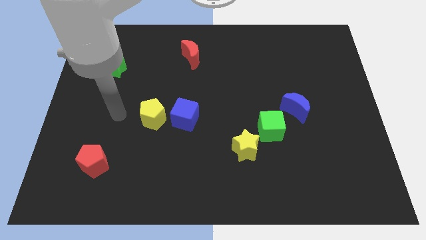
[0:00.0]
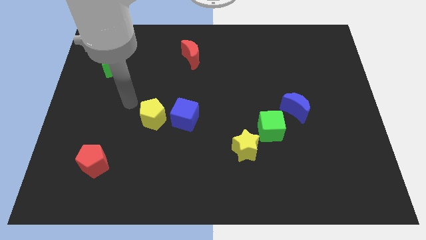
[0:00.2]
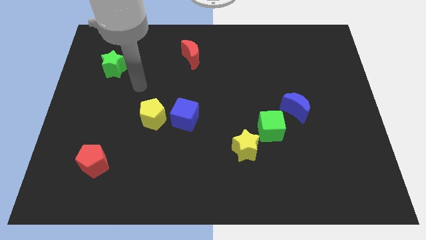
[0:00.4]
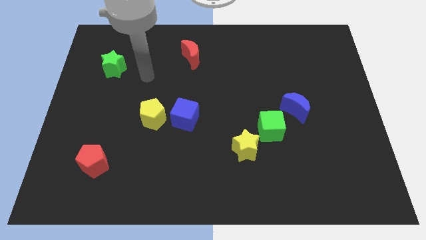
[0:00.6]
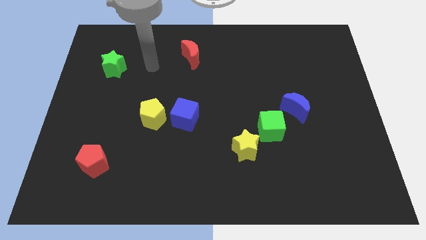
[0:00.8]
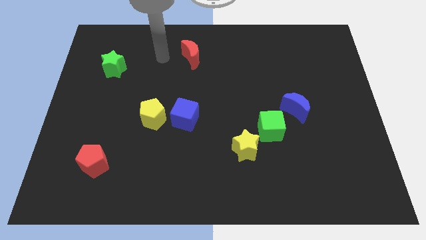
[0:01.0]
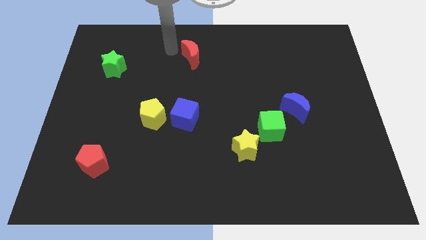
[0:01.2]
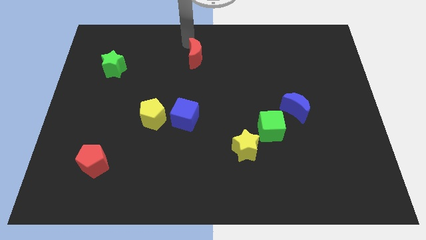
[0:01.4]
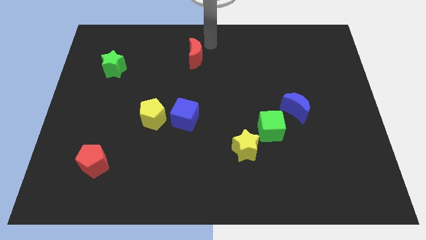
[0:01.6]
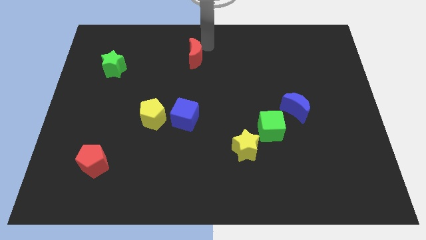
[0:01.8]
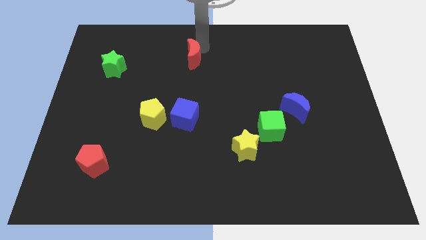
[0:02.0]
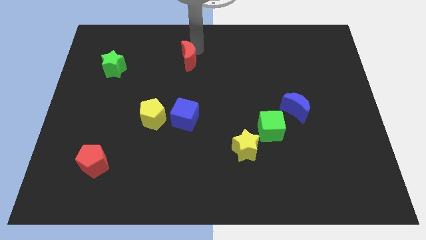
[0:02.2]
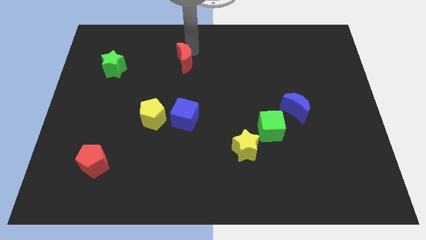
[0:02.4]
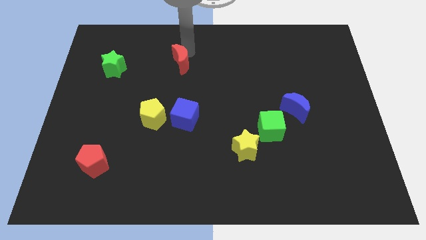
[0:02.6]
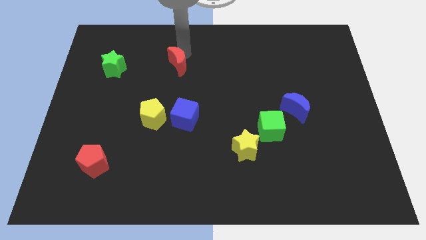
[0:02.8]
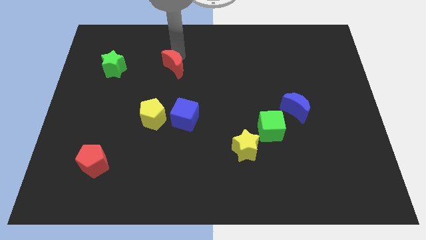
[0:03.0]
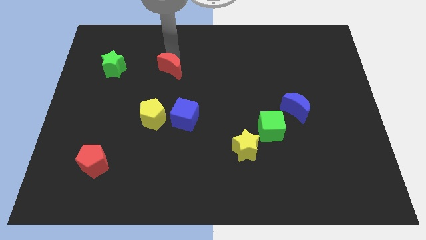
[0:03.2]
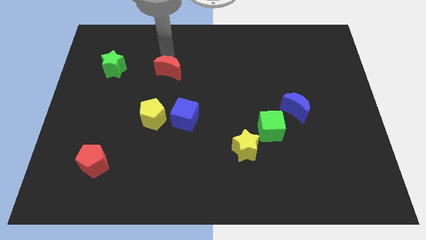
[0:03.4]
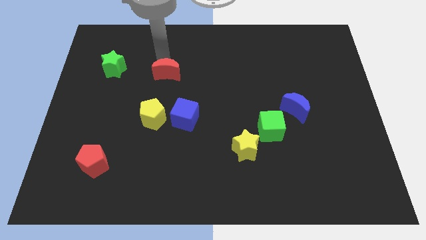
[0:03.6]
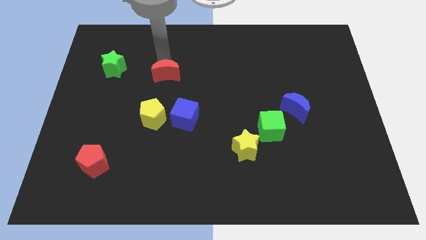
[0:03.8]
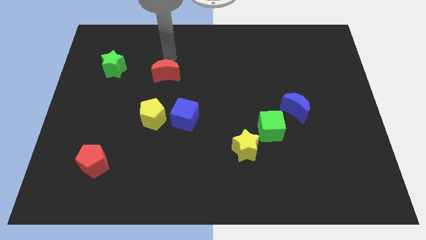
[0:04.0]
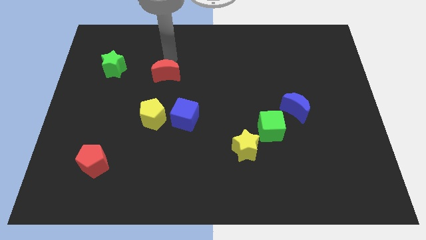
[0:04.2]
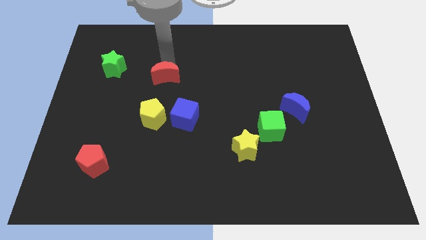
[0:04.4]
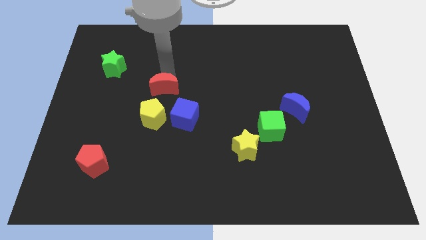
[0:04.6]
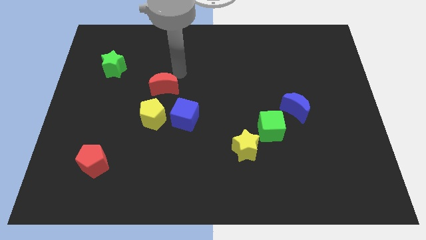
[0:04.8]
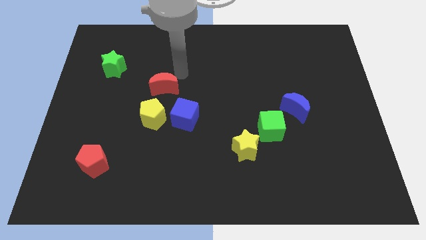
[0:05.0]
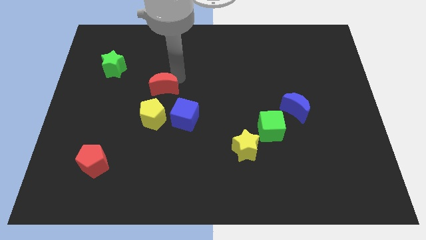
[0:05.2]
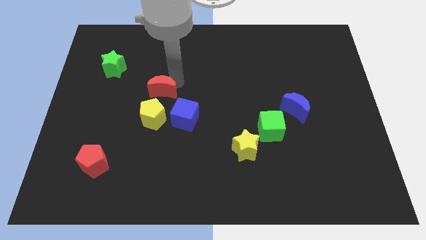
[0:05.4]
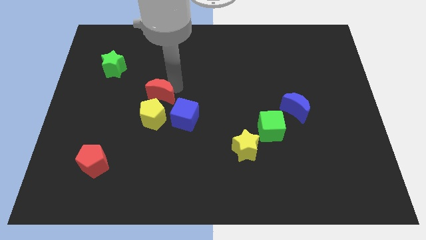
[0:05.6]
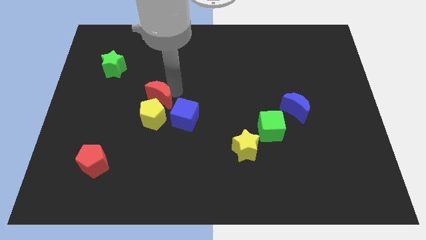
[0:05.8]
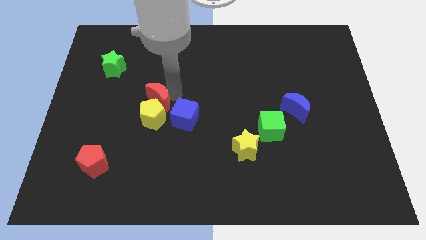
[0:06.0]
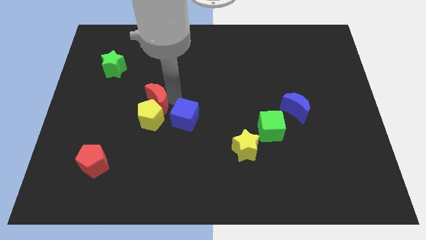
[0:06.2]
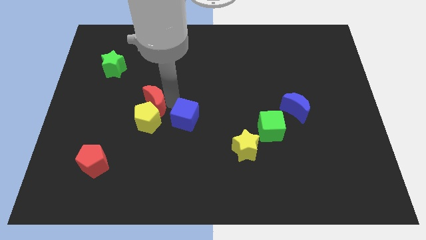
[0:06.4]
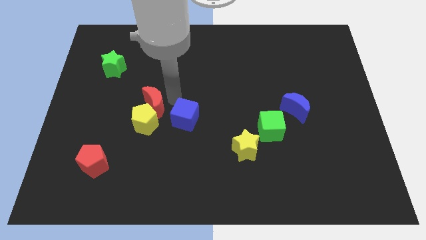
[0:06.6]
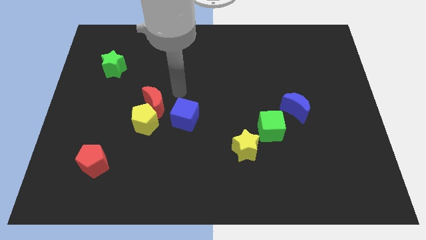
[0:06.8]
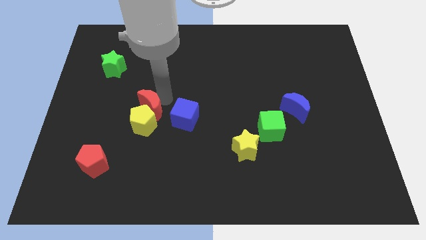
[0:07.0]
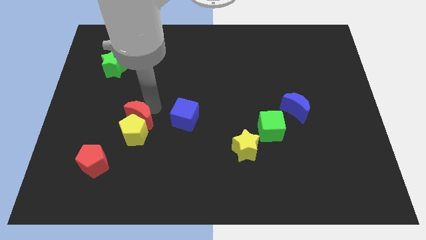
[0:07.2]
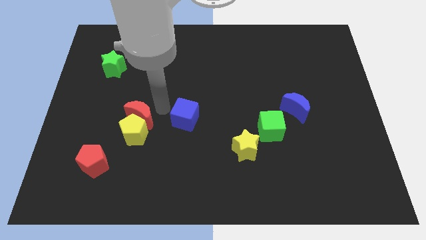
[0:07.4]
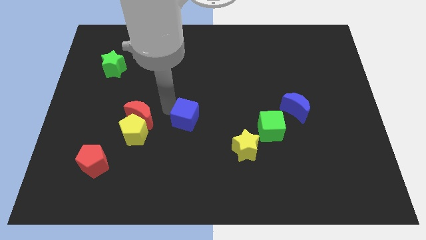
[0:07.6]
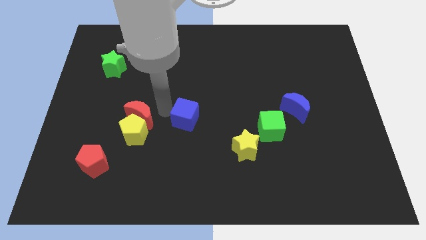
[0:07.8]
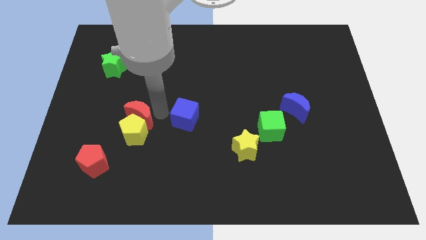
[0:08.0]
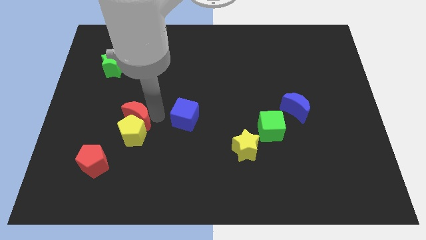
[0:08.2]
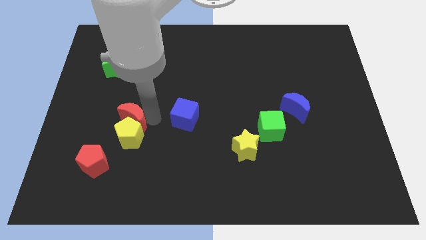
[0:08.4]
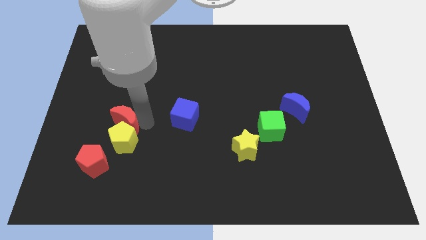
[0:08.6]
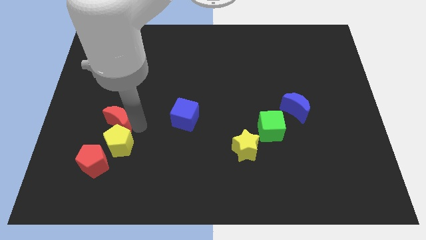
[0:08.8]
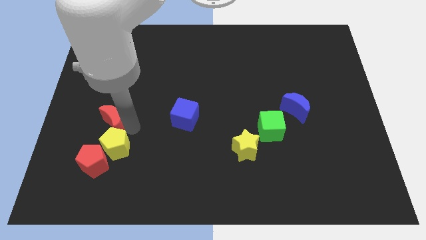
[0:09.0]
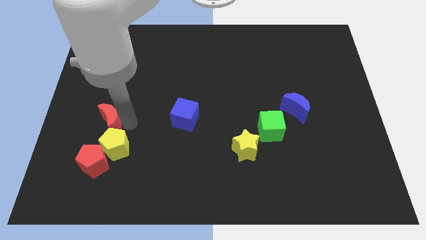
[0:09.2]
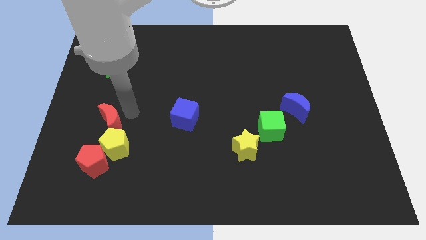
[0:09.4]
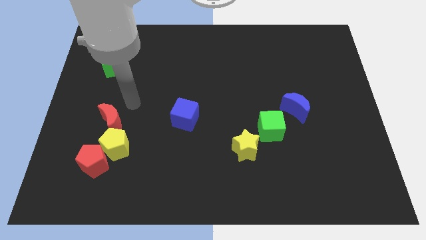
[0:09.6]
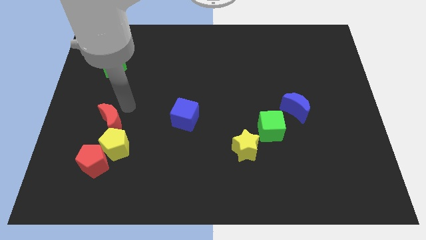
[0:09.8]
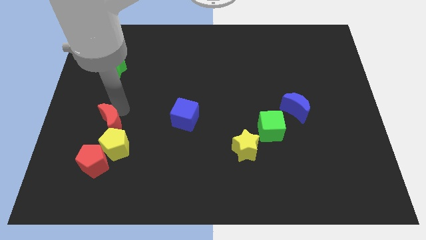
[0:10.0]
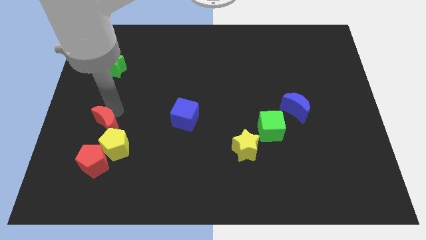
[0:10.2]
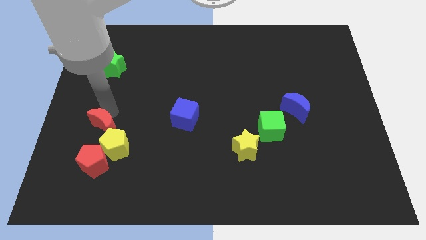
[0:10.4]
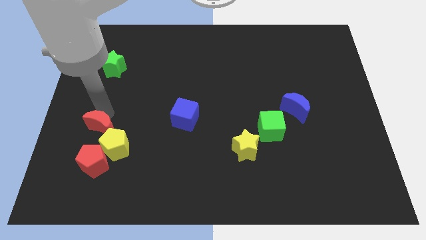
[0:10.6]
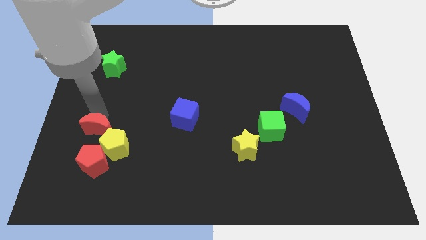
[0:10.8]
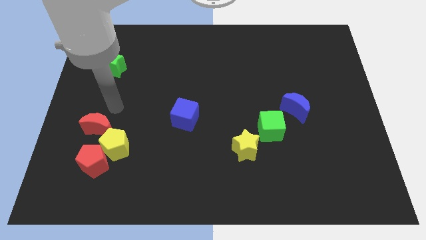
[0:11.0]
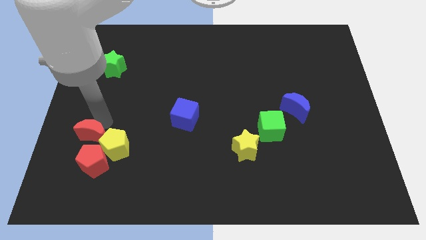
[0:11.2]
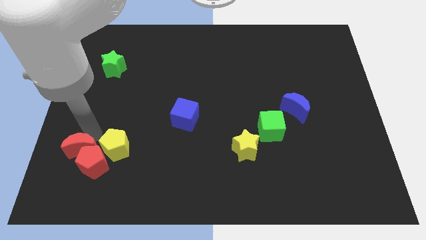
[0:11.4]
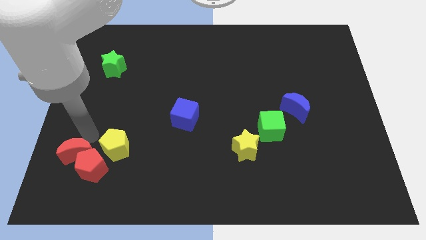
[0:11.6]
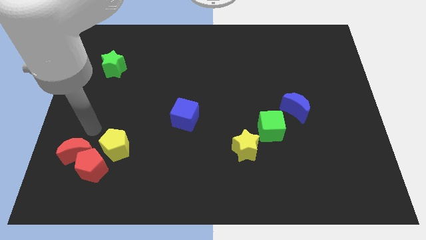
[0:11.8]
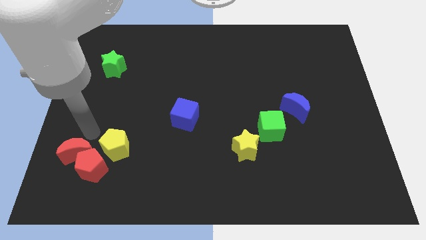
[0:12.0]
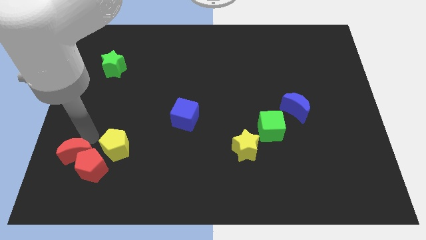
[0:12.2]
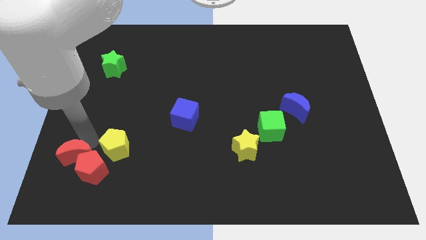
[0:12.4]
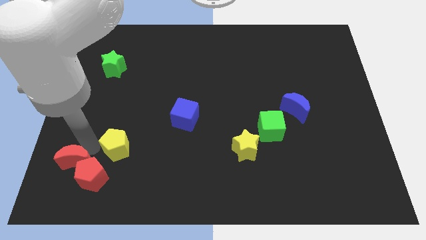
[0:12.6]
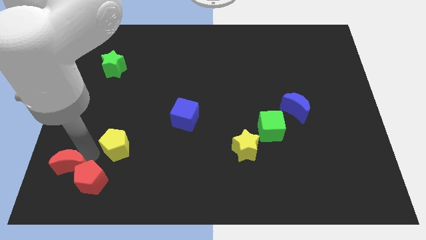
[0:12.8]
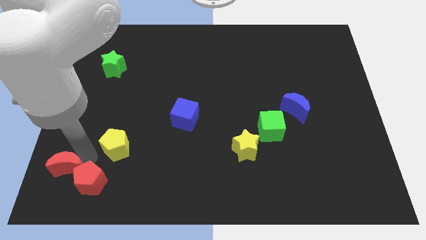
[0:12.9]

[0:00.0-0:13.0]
push the red moon to the bottom left of the board
